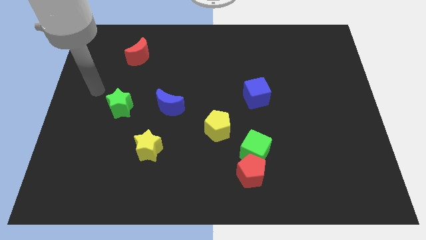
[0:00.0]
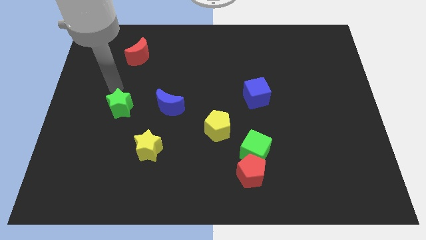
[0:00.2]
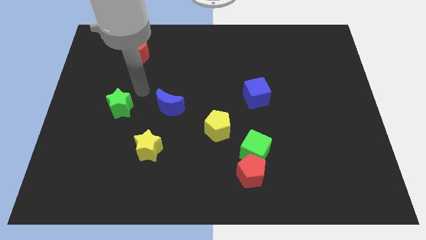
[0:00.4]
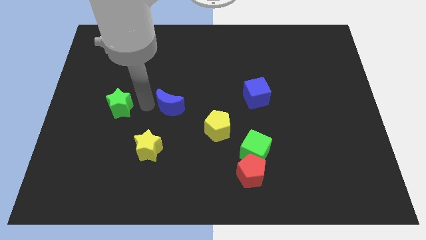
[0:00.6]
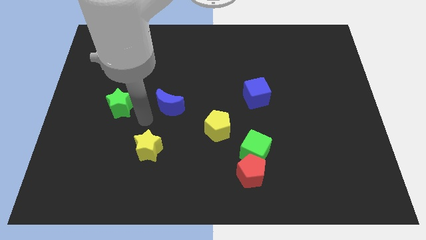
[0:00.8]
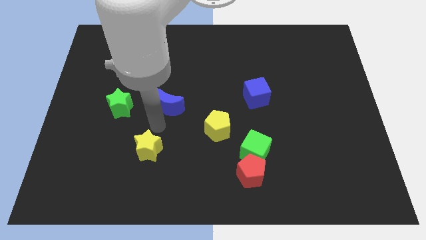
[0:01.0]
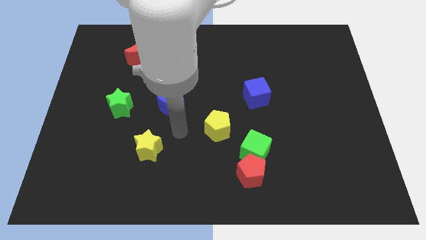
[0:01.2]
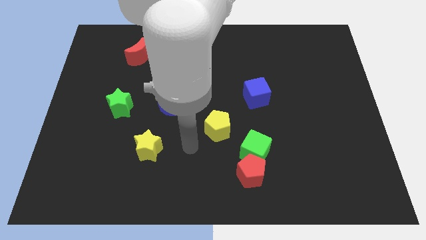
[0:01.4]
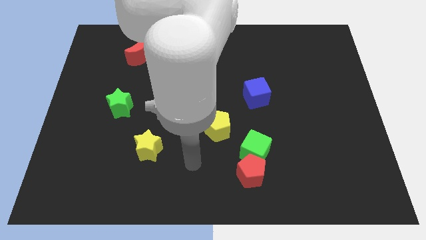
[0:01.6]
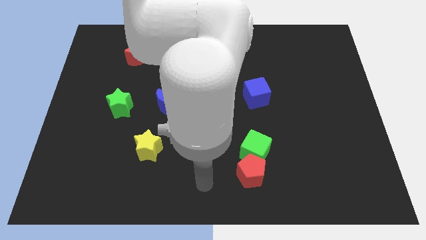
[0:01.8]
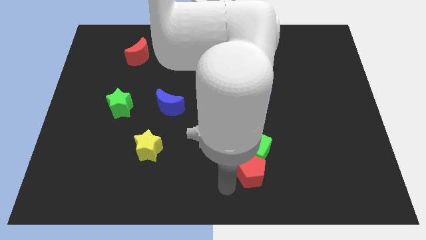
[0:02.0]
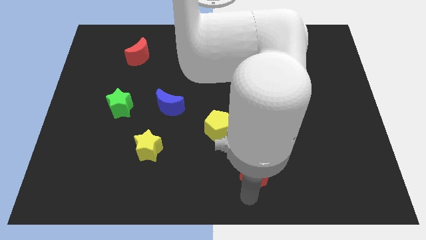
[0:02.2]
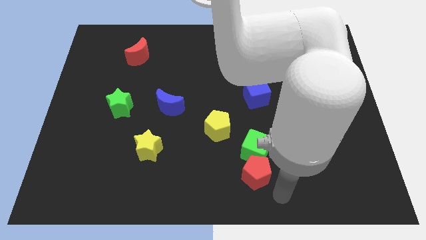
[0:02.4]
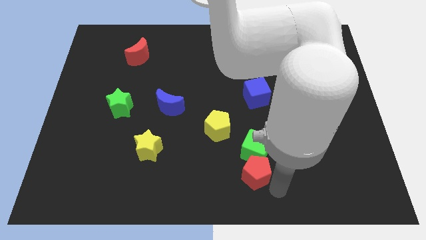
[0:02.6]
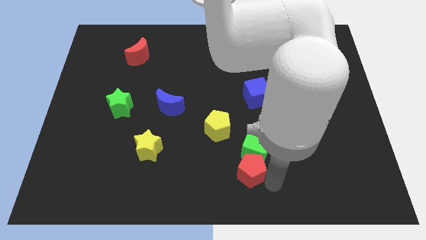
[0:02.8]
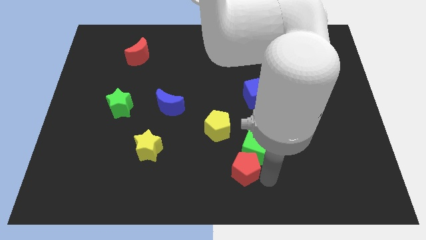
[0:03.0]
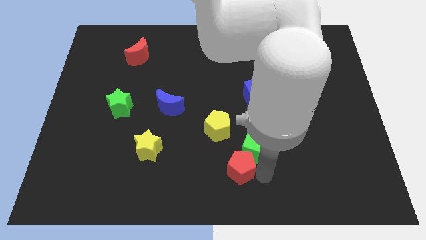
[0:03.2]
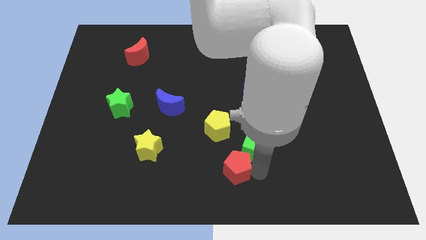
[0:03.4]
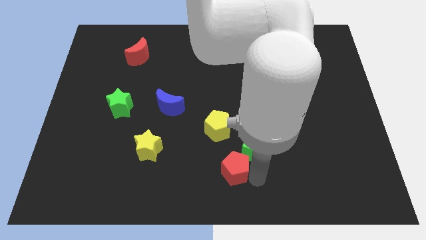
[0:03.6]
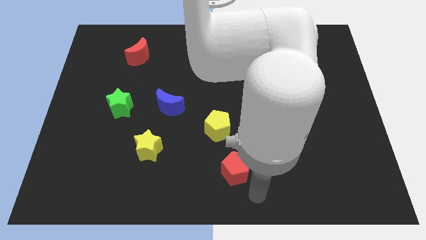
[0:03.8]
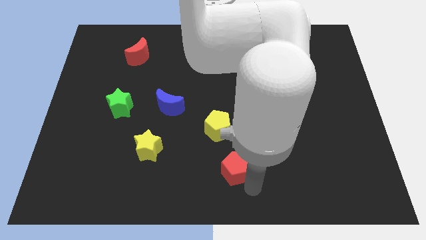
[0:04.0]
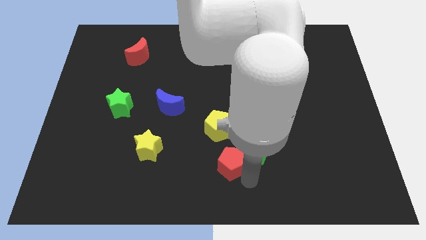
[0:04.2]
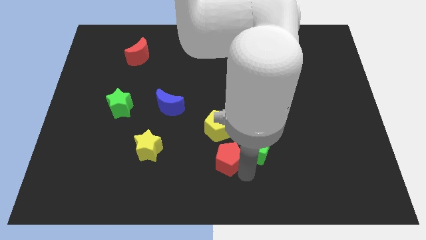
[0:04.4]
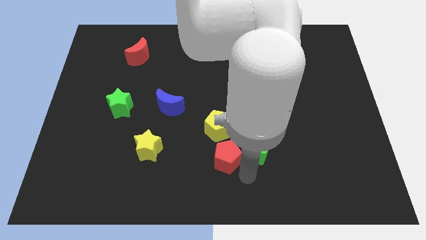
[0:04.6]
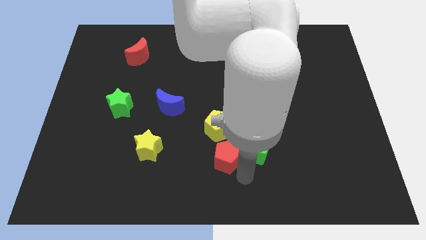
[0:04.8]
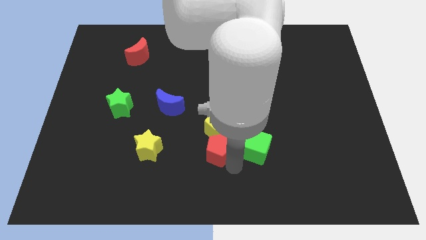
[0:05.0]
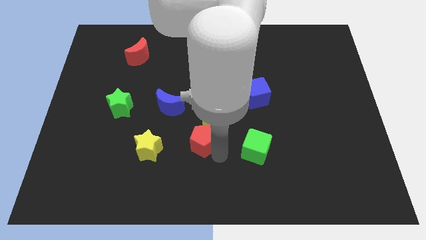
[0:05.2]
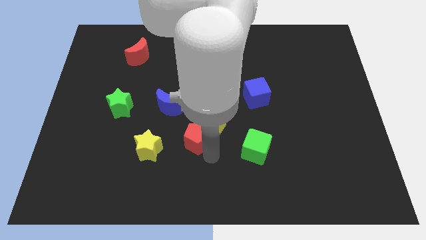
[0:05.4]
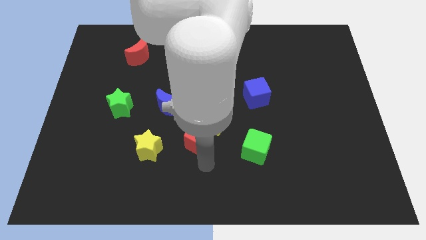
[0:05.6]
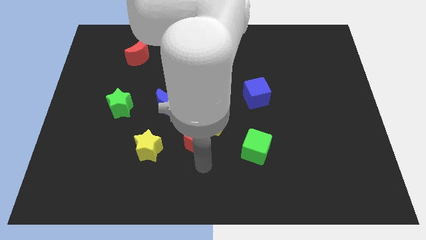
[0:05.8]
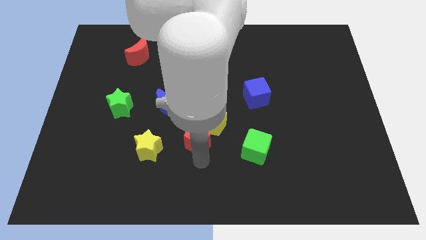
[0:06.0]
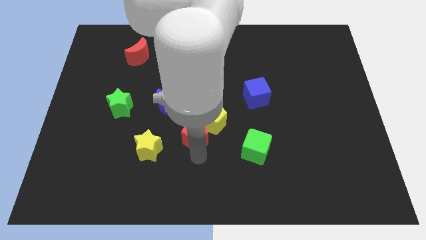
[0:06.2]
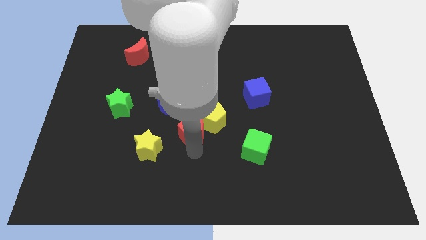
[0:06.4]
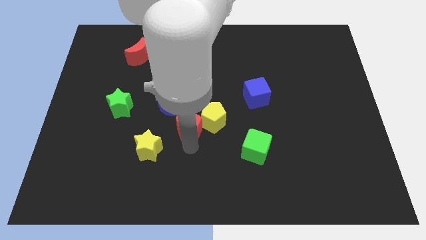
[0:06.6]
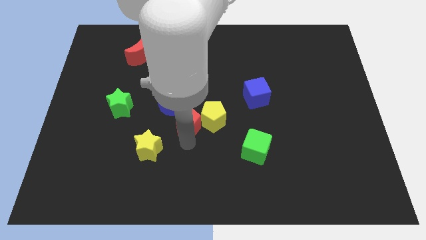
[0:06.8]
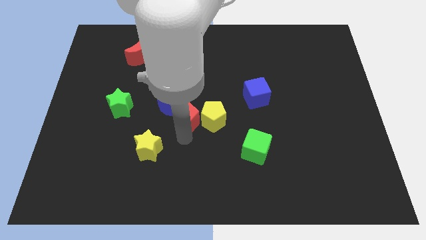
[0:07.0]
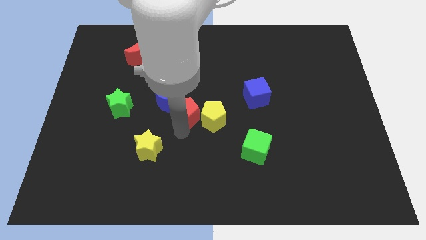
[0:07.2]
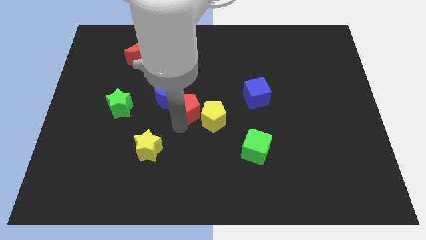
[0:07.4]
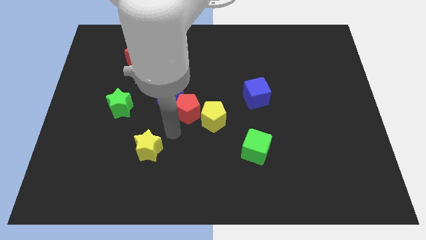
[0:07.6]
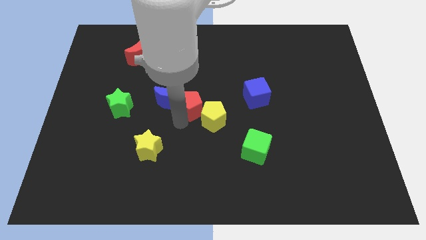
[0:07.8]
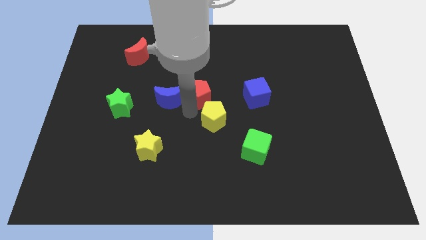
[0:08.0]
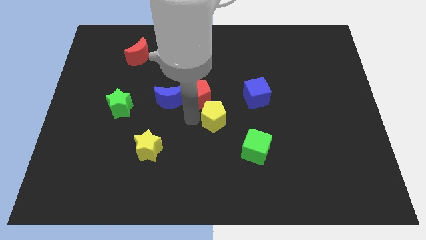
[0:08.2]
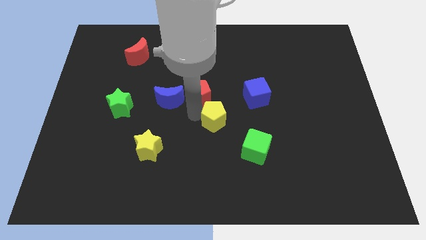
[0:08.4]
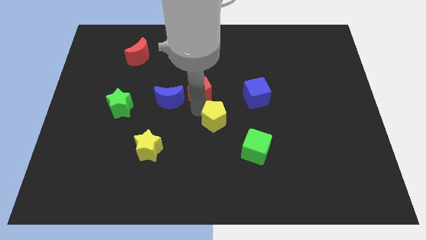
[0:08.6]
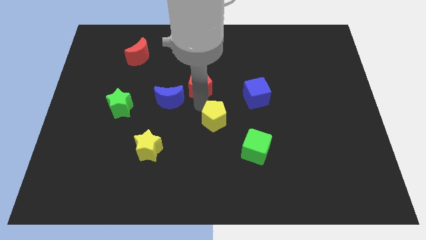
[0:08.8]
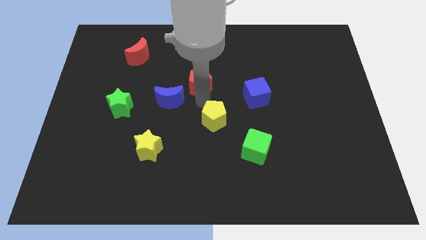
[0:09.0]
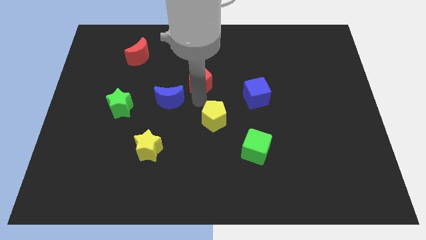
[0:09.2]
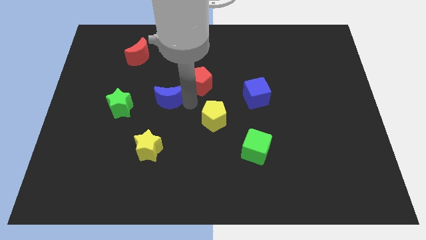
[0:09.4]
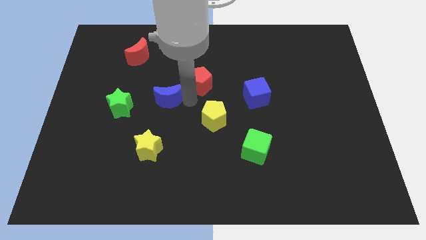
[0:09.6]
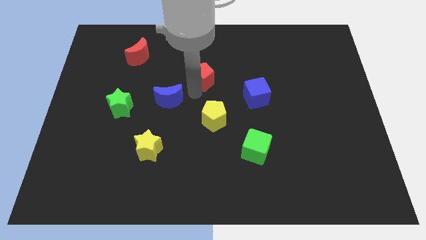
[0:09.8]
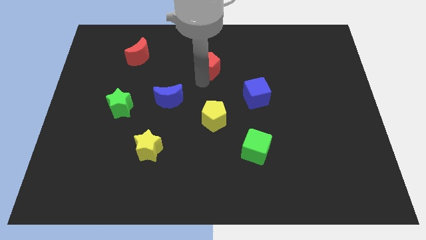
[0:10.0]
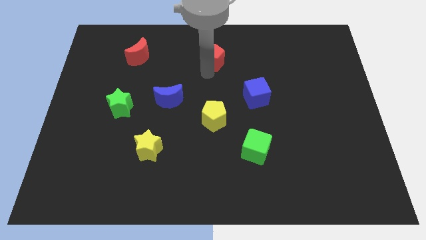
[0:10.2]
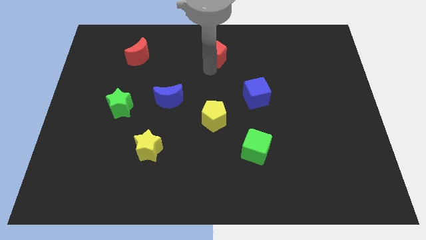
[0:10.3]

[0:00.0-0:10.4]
put the red pentagon to the top side
